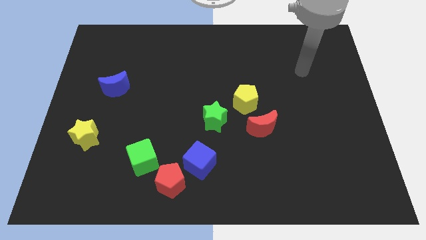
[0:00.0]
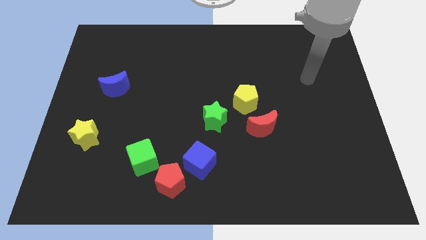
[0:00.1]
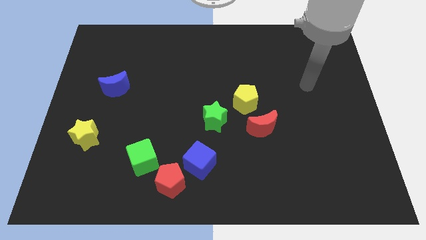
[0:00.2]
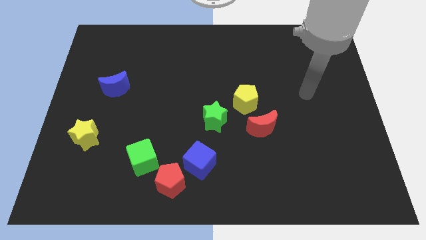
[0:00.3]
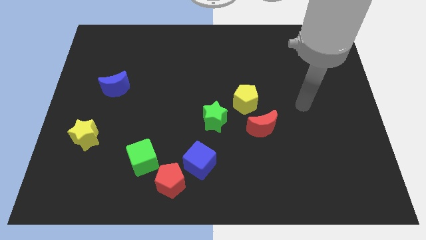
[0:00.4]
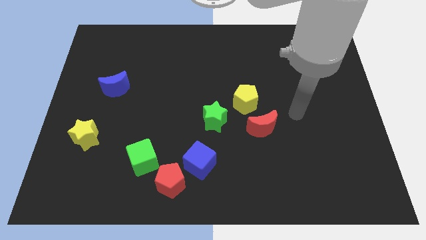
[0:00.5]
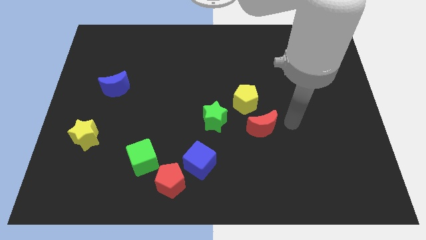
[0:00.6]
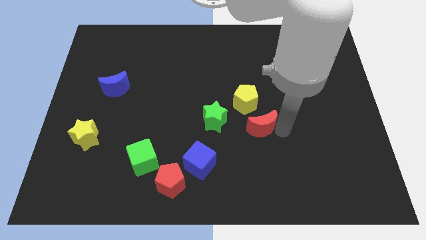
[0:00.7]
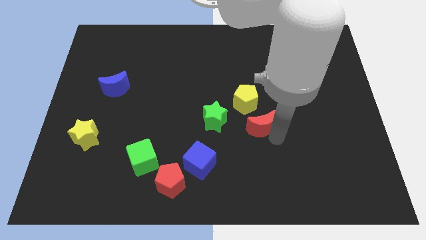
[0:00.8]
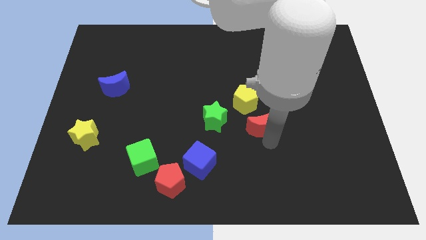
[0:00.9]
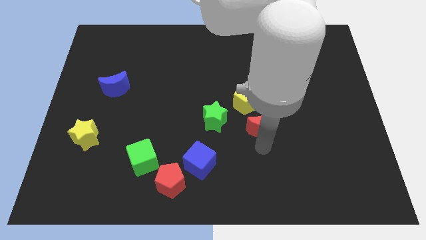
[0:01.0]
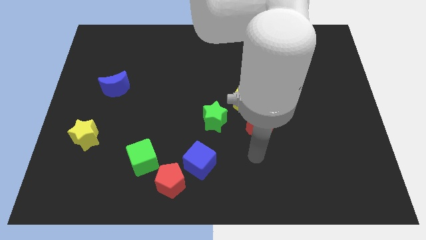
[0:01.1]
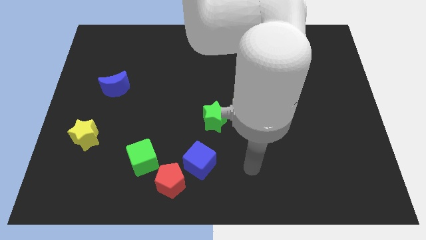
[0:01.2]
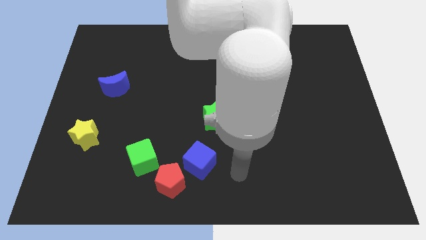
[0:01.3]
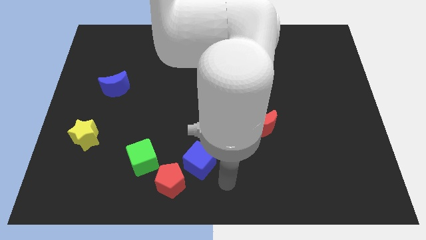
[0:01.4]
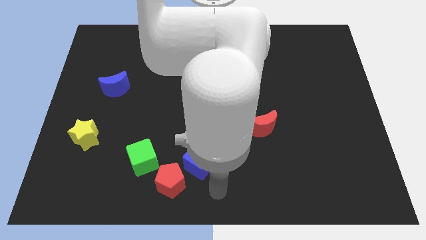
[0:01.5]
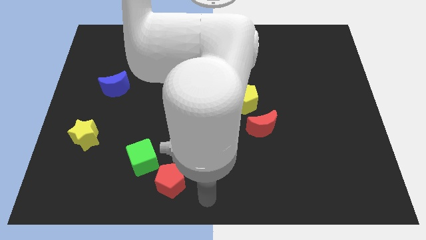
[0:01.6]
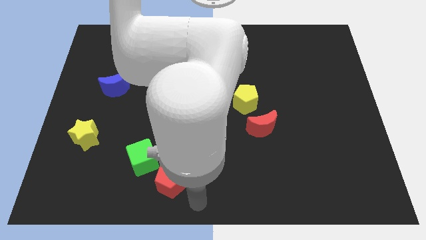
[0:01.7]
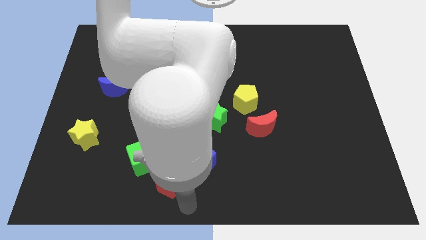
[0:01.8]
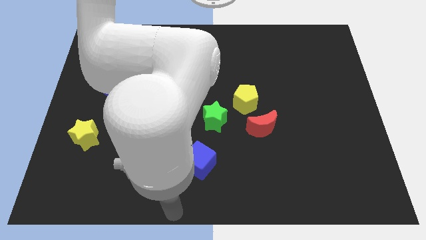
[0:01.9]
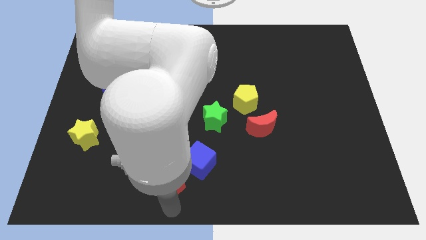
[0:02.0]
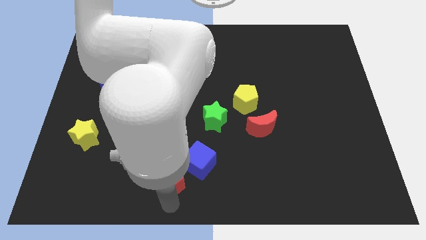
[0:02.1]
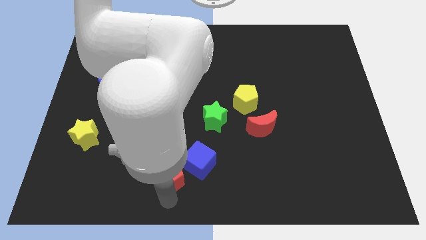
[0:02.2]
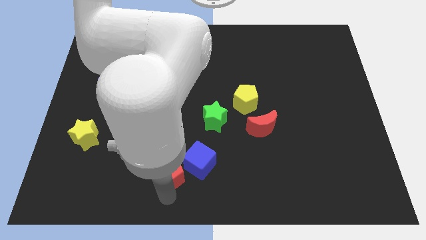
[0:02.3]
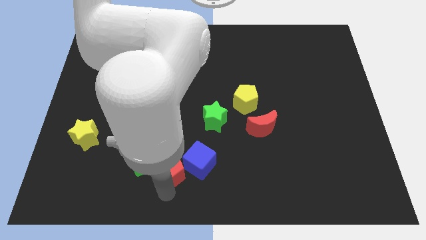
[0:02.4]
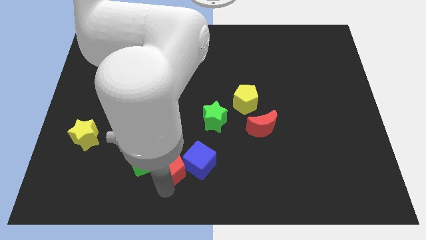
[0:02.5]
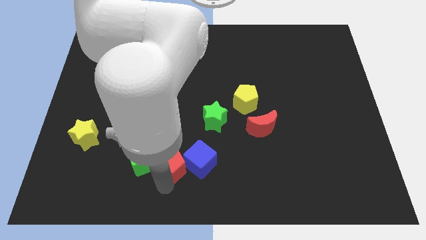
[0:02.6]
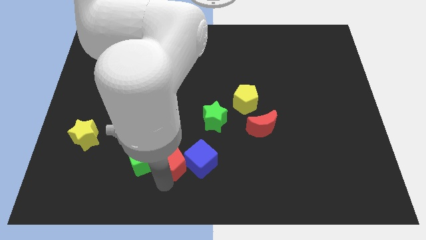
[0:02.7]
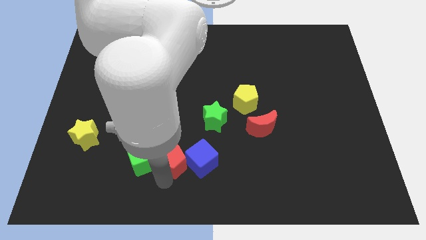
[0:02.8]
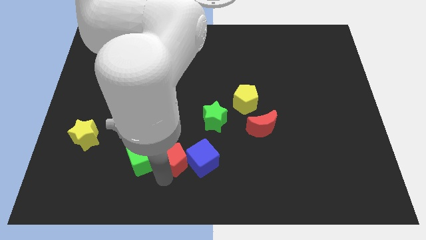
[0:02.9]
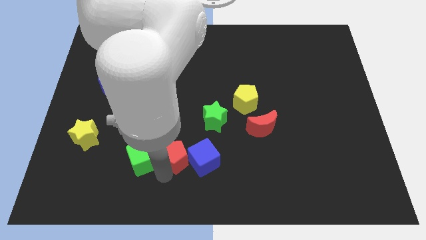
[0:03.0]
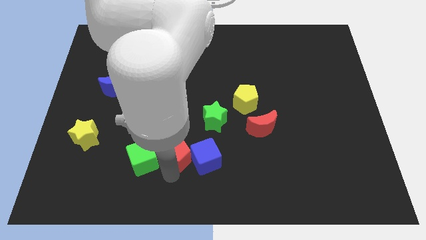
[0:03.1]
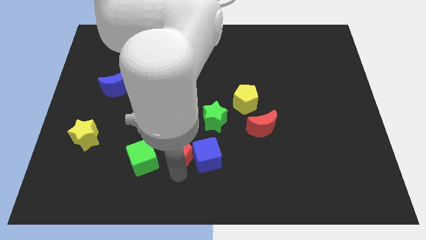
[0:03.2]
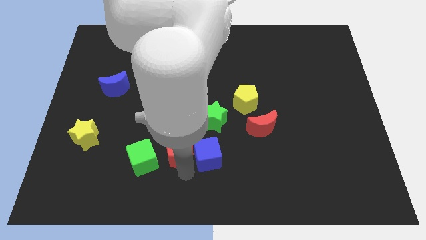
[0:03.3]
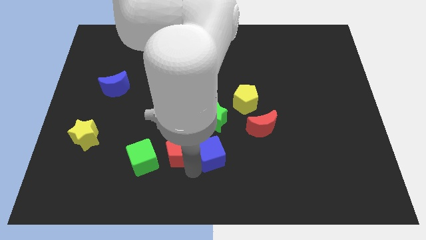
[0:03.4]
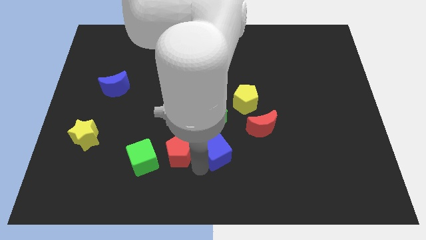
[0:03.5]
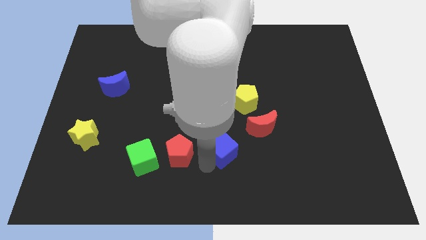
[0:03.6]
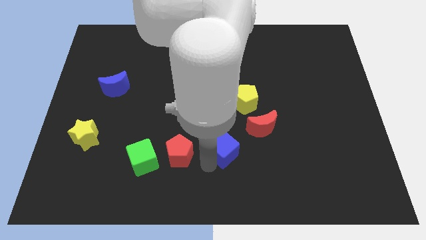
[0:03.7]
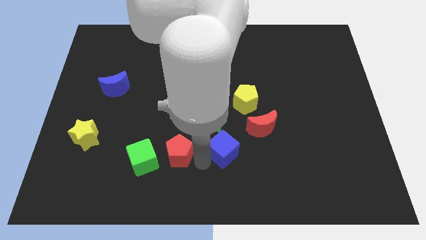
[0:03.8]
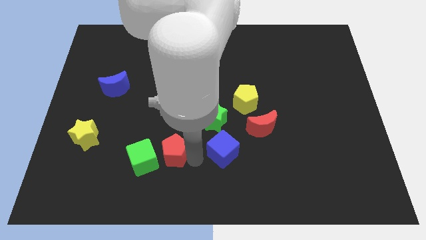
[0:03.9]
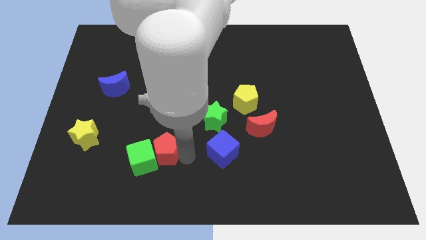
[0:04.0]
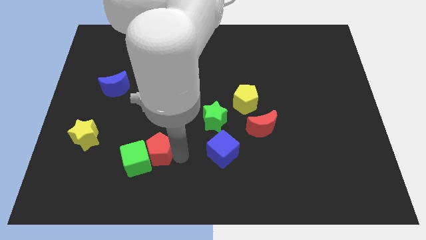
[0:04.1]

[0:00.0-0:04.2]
push the red pentagon up and left diagonally slightly

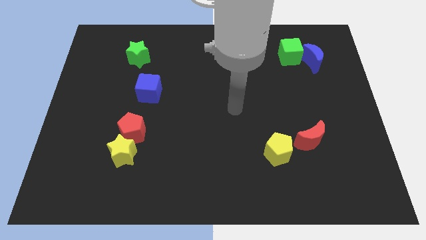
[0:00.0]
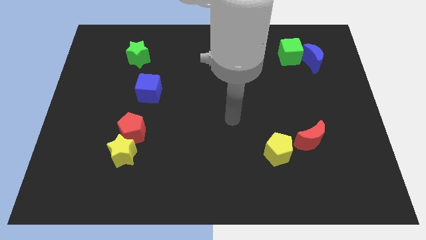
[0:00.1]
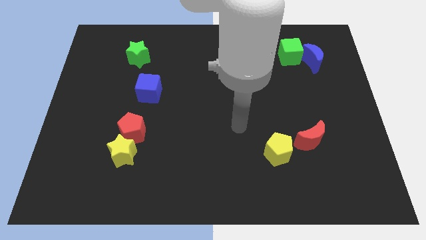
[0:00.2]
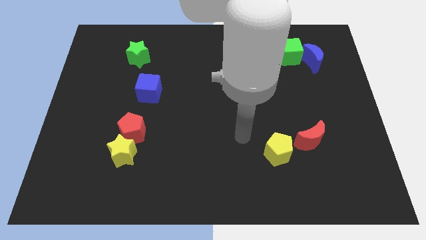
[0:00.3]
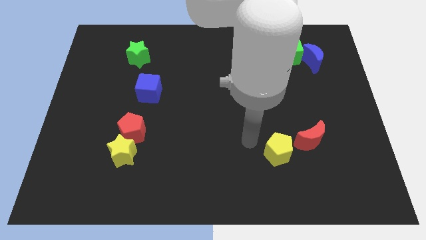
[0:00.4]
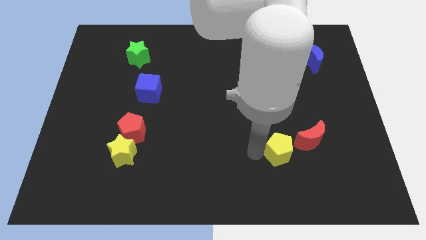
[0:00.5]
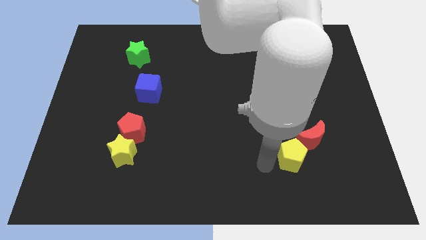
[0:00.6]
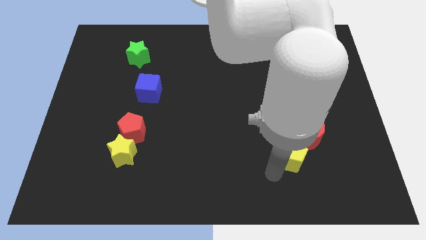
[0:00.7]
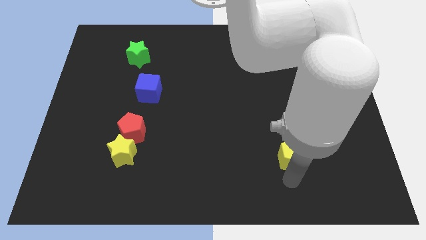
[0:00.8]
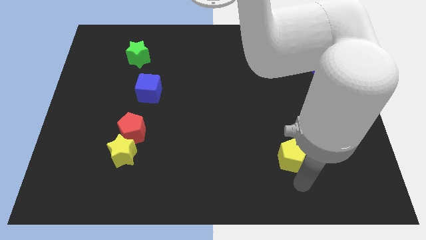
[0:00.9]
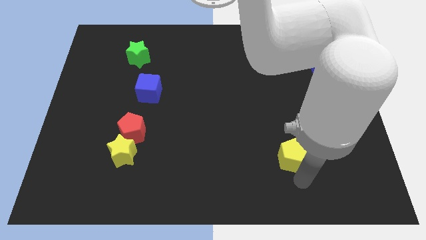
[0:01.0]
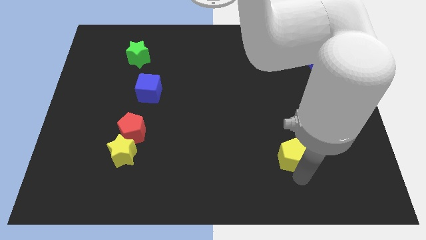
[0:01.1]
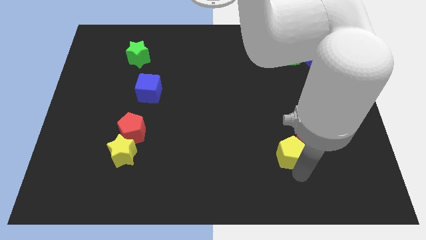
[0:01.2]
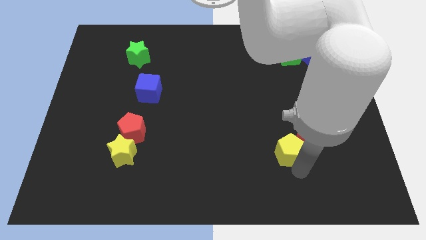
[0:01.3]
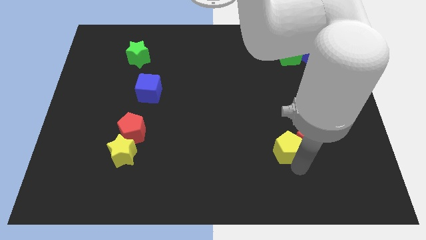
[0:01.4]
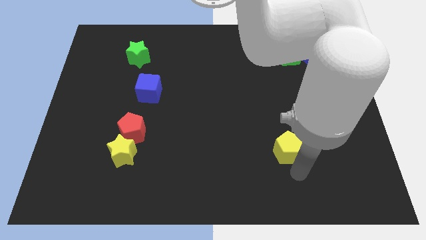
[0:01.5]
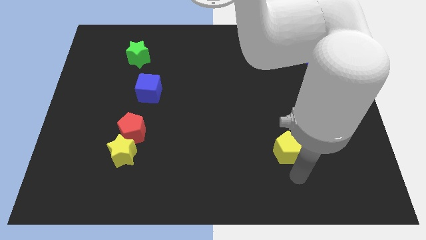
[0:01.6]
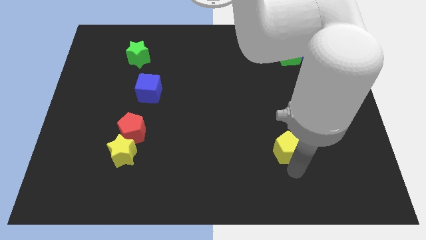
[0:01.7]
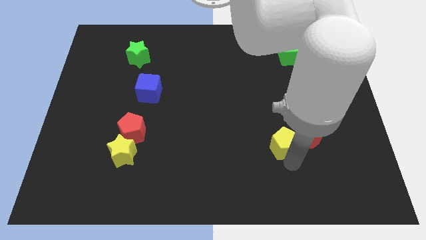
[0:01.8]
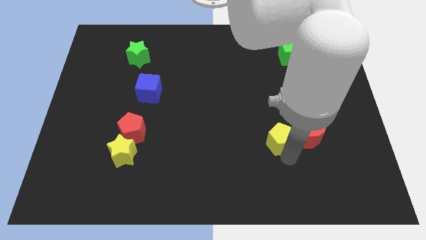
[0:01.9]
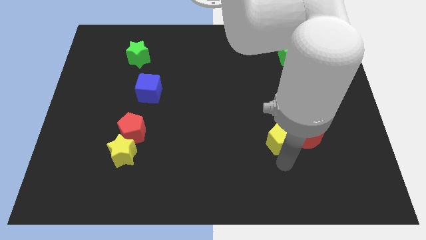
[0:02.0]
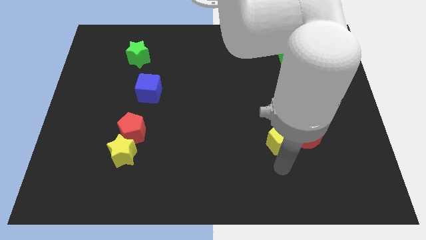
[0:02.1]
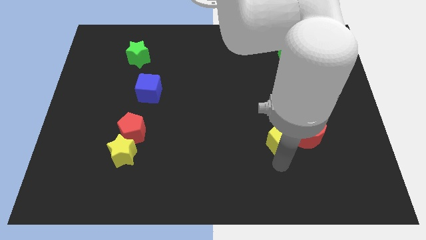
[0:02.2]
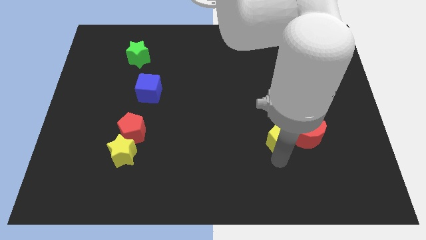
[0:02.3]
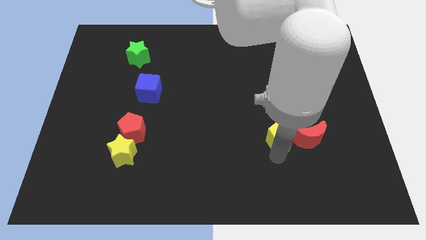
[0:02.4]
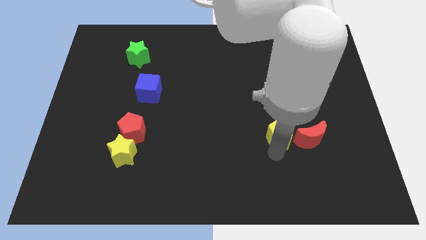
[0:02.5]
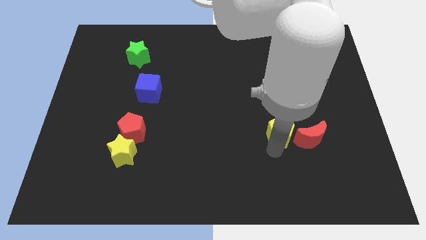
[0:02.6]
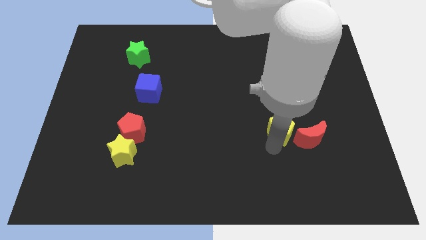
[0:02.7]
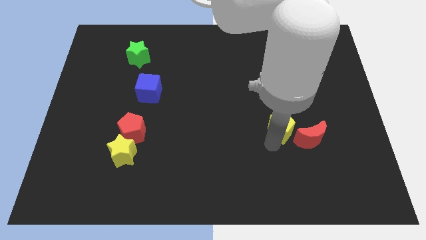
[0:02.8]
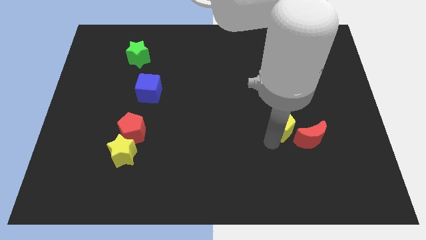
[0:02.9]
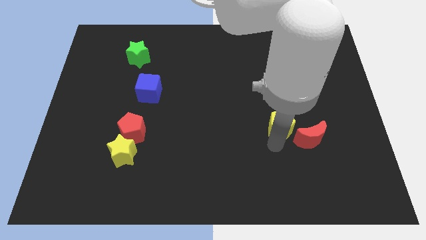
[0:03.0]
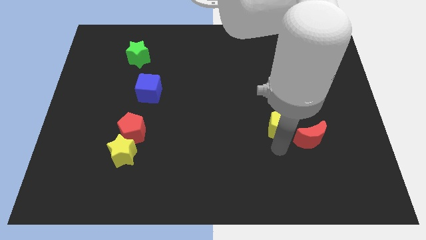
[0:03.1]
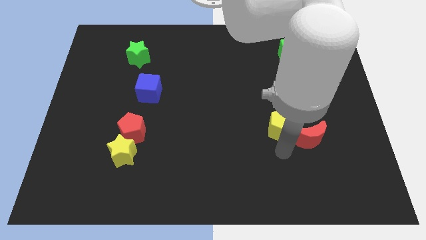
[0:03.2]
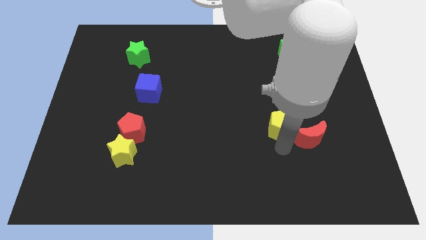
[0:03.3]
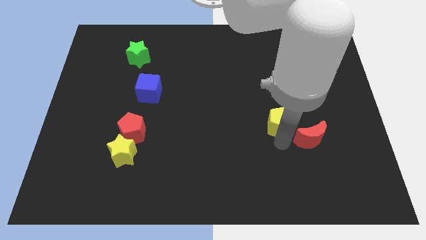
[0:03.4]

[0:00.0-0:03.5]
move the yellow pentagon upwards somewhat

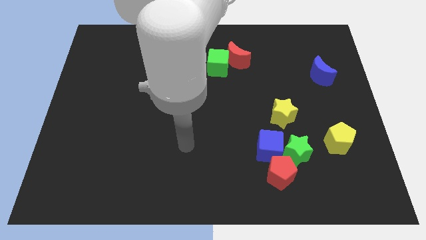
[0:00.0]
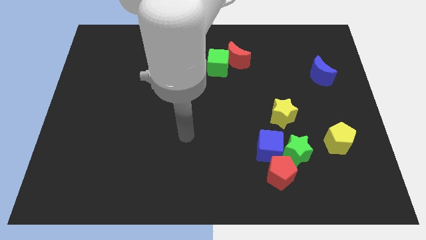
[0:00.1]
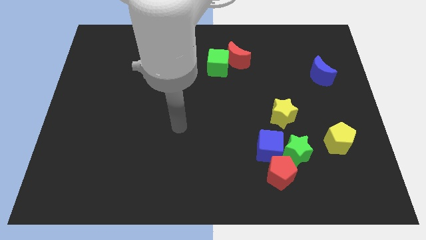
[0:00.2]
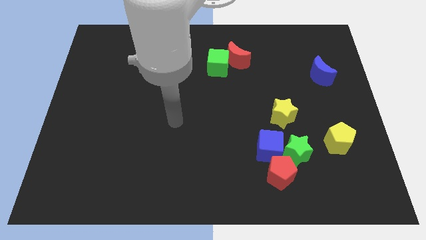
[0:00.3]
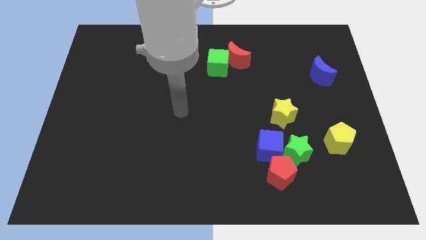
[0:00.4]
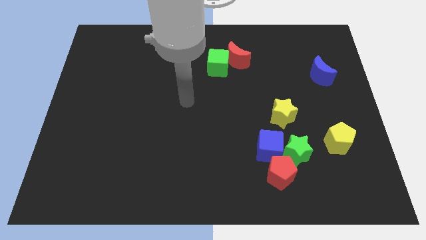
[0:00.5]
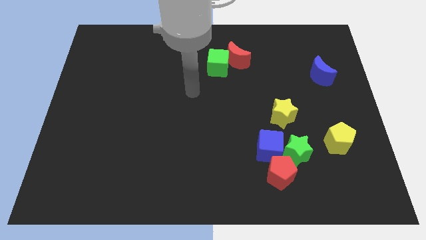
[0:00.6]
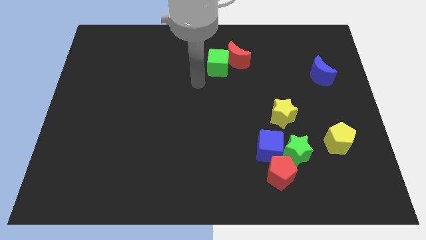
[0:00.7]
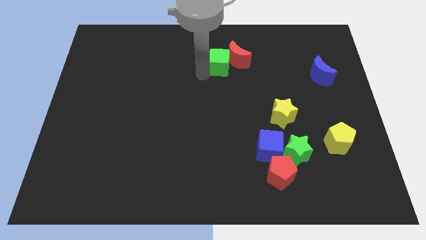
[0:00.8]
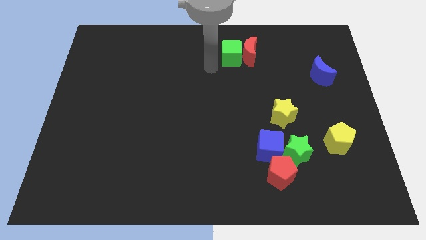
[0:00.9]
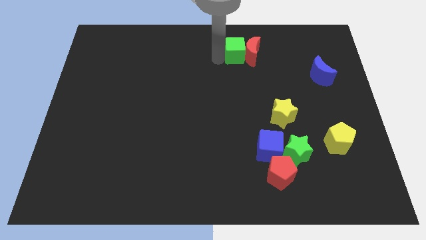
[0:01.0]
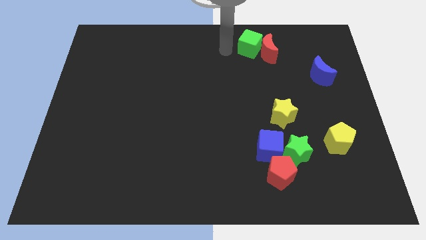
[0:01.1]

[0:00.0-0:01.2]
slightly move the red moon right
